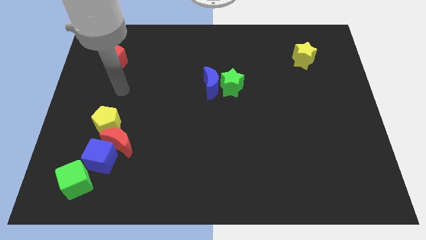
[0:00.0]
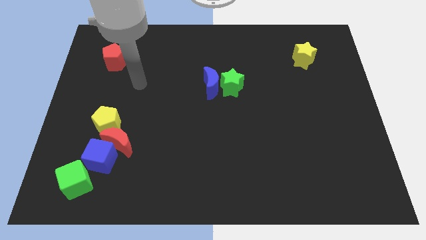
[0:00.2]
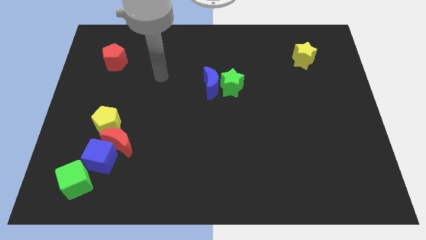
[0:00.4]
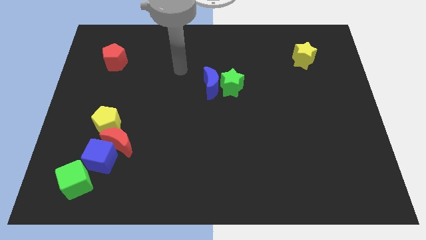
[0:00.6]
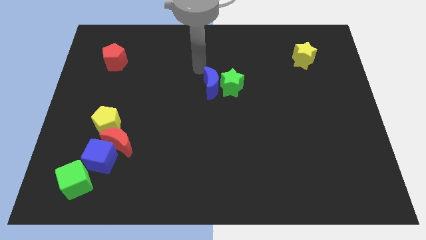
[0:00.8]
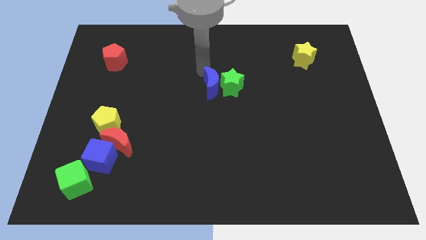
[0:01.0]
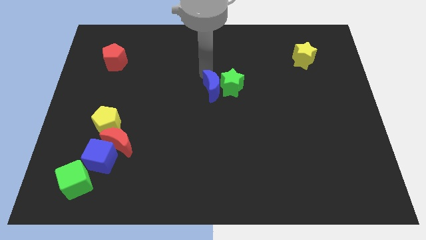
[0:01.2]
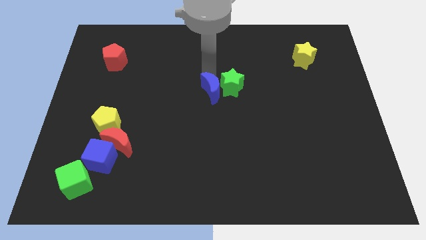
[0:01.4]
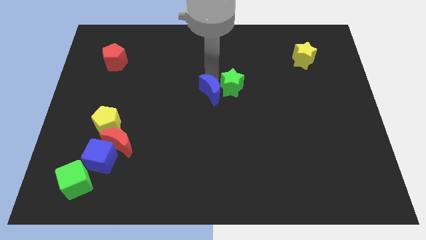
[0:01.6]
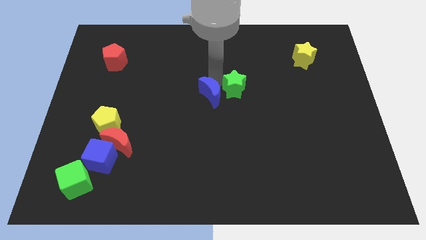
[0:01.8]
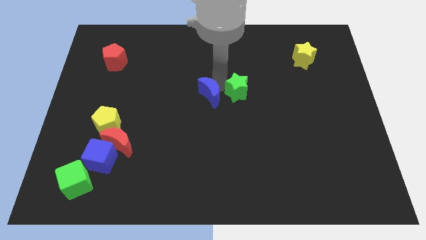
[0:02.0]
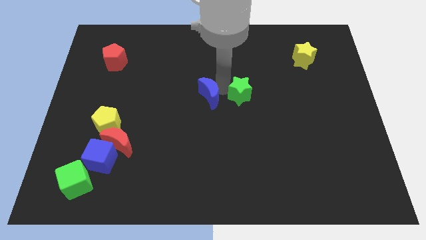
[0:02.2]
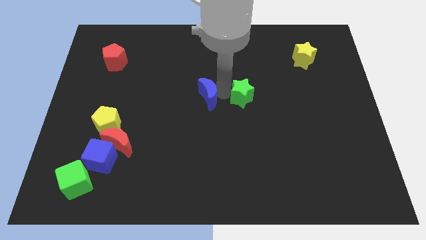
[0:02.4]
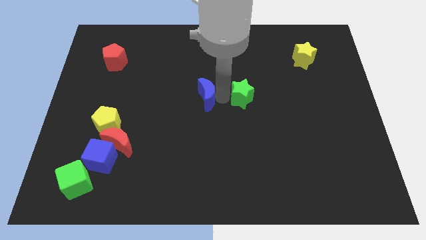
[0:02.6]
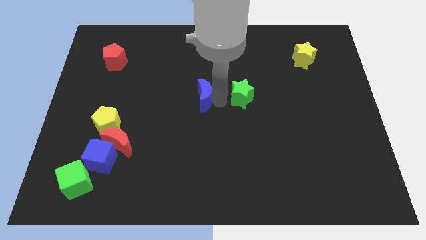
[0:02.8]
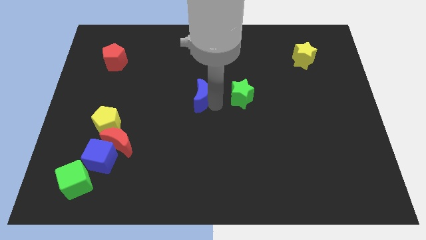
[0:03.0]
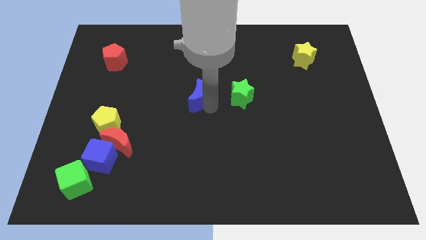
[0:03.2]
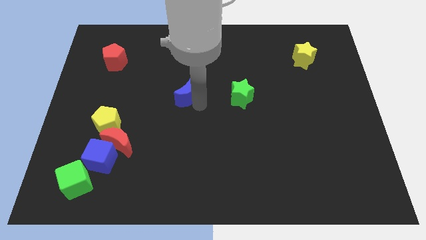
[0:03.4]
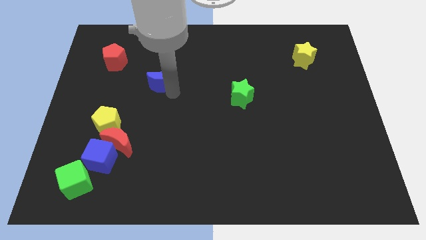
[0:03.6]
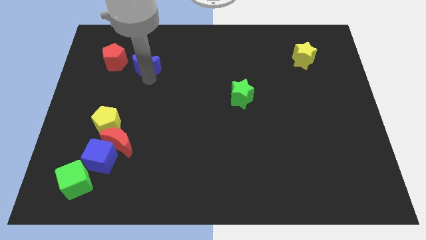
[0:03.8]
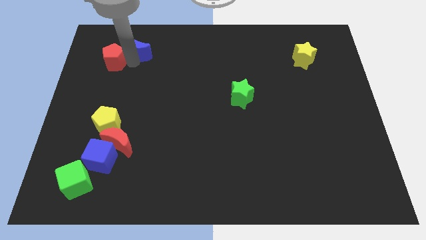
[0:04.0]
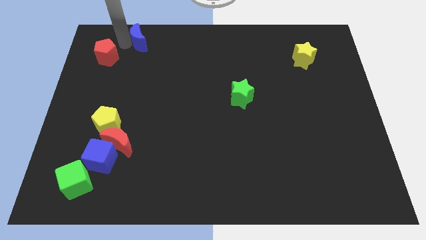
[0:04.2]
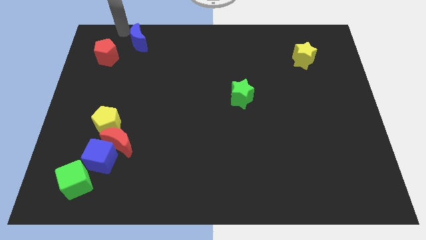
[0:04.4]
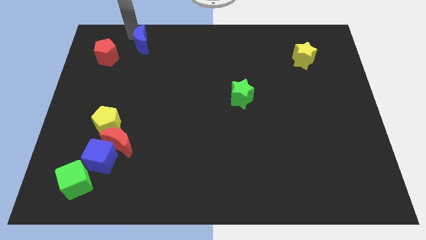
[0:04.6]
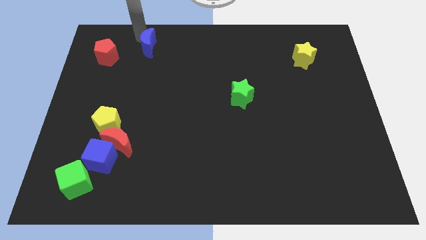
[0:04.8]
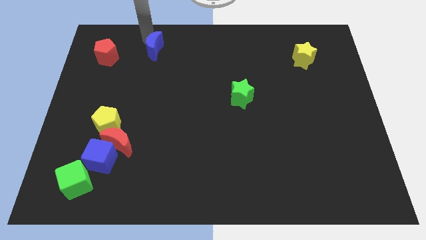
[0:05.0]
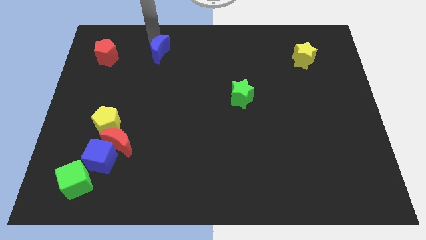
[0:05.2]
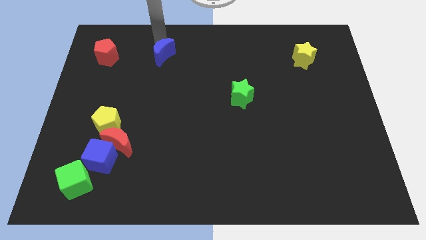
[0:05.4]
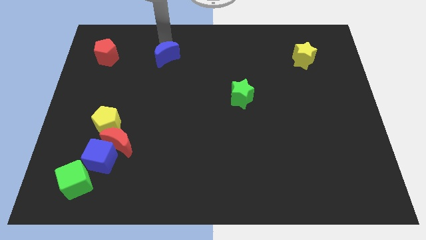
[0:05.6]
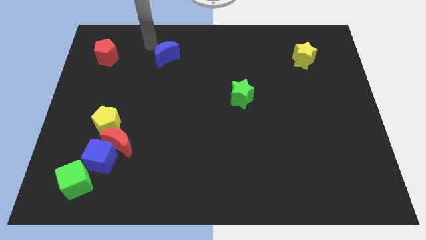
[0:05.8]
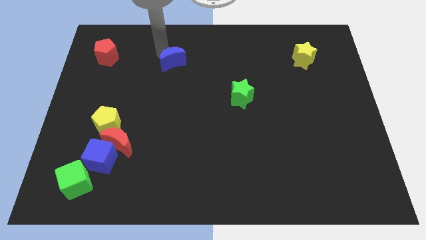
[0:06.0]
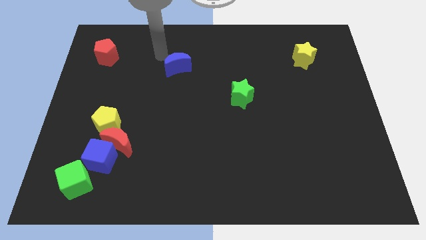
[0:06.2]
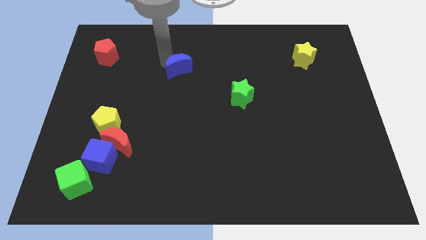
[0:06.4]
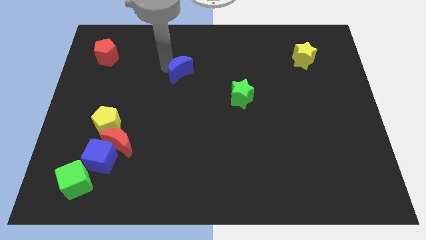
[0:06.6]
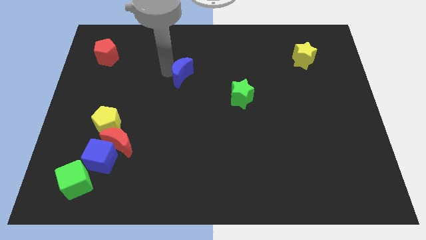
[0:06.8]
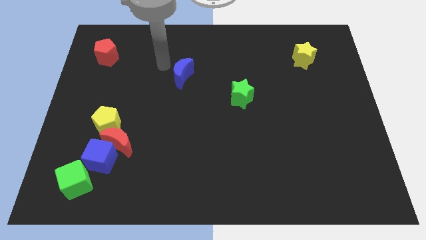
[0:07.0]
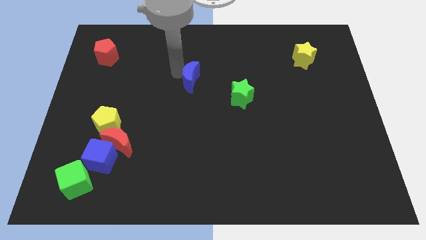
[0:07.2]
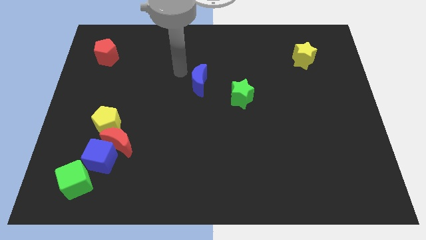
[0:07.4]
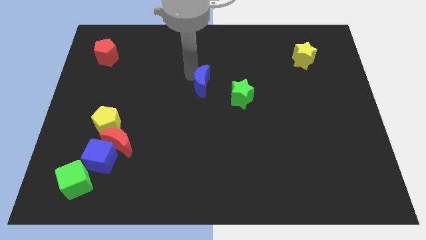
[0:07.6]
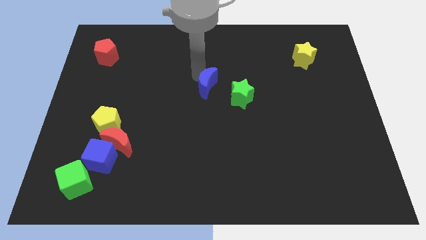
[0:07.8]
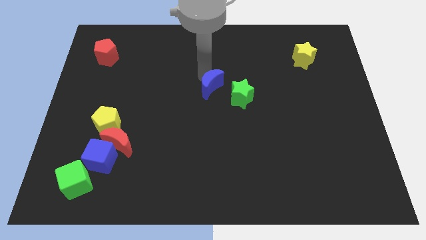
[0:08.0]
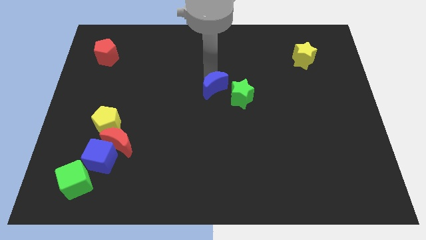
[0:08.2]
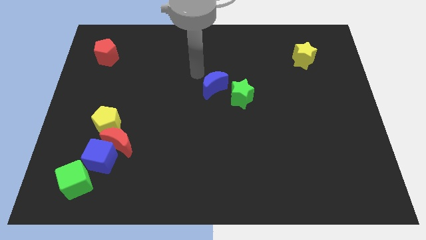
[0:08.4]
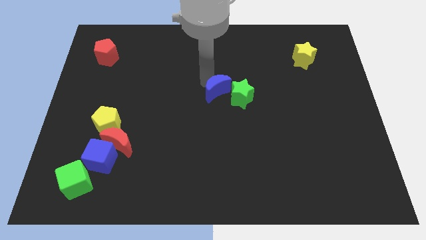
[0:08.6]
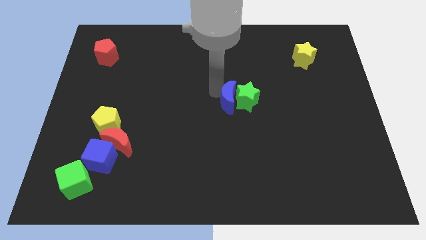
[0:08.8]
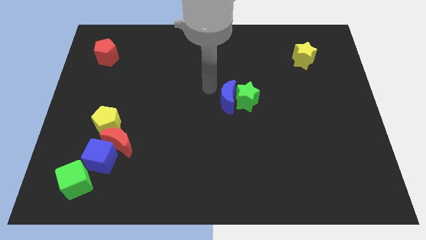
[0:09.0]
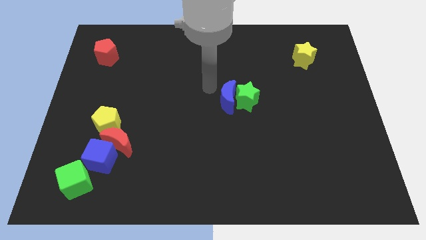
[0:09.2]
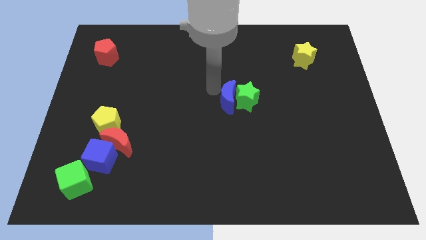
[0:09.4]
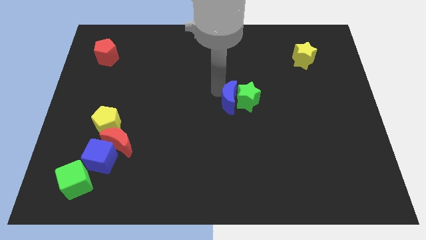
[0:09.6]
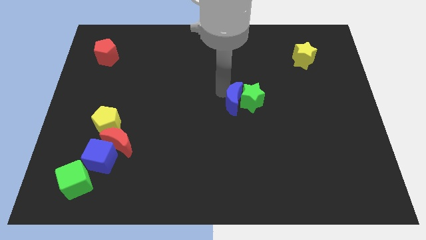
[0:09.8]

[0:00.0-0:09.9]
push the blue moon diagonally downwards and right a bit

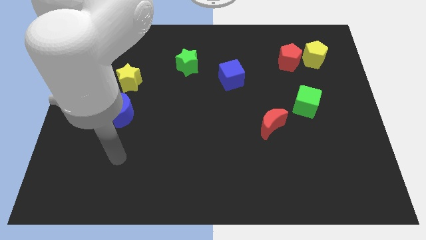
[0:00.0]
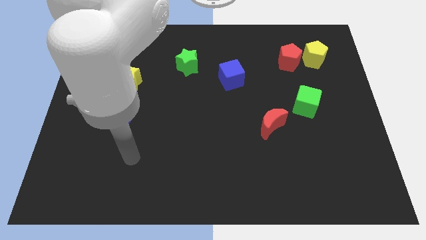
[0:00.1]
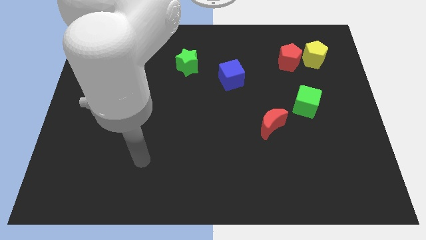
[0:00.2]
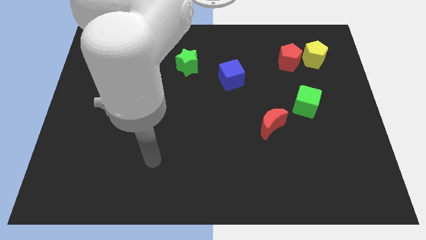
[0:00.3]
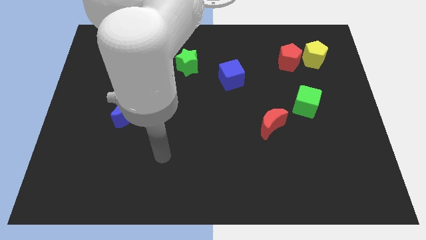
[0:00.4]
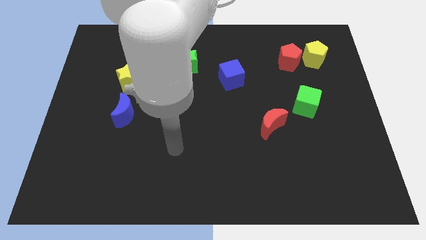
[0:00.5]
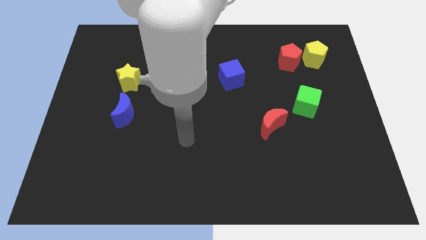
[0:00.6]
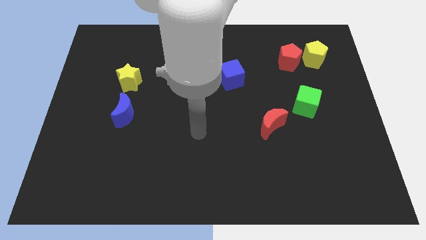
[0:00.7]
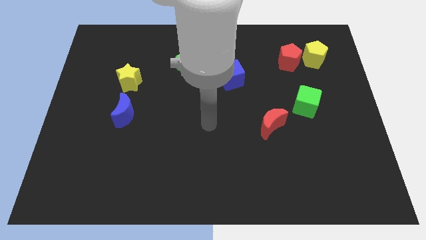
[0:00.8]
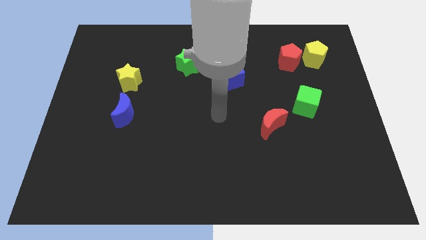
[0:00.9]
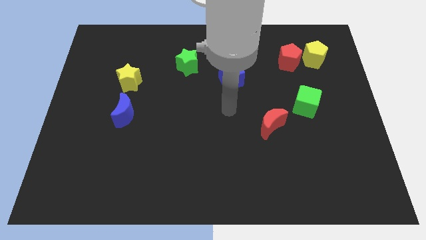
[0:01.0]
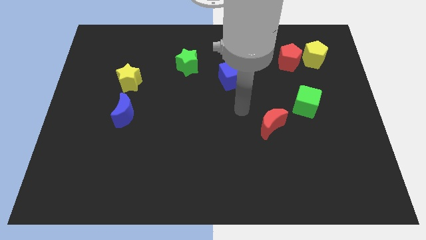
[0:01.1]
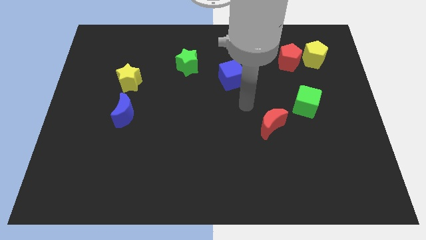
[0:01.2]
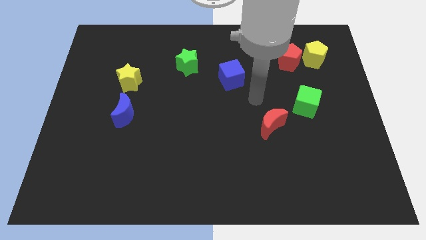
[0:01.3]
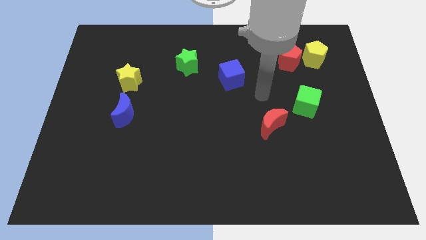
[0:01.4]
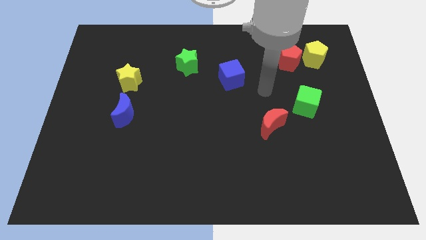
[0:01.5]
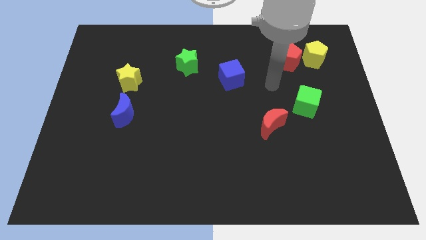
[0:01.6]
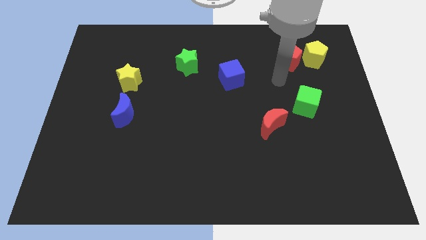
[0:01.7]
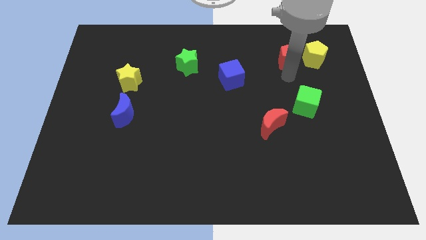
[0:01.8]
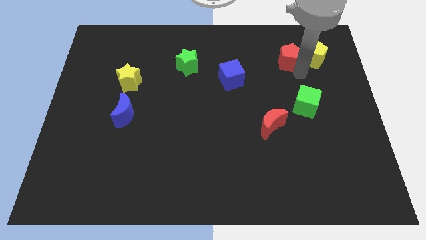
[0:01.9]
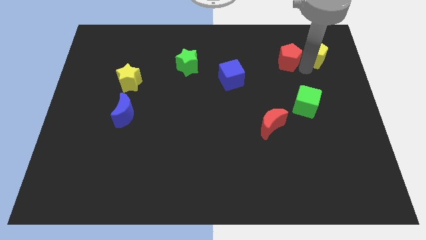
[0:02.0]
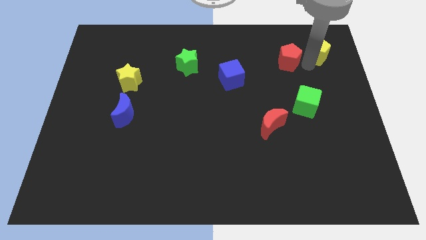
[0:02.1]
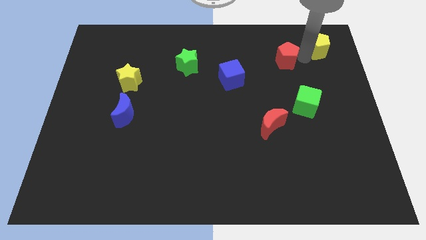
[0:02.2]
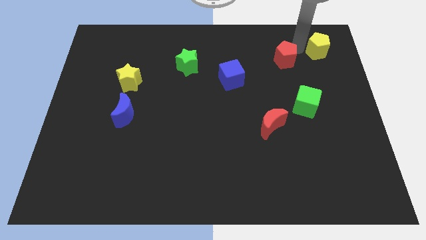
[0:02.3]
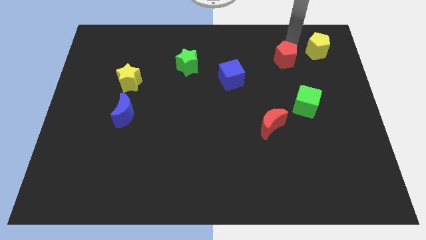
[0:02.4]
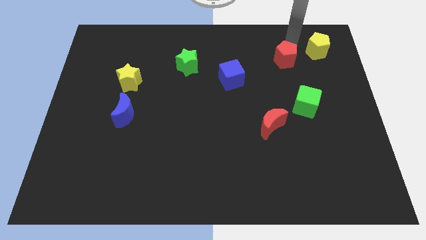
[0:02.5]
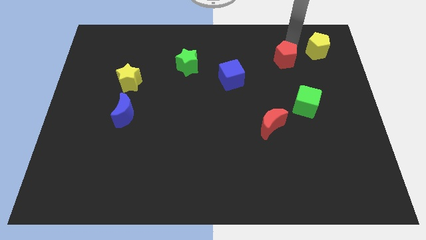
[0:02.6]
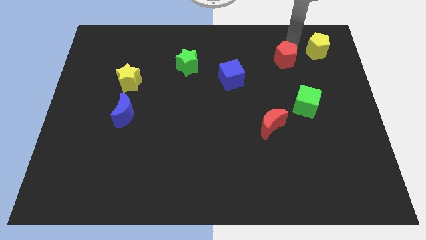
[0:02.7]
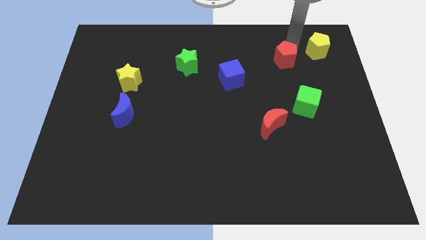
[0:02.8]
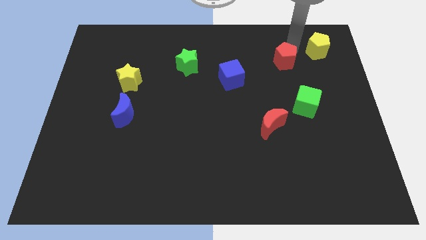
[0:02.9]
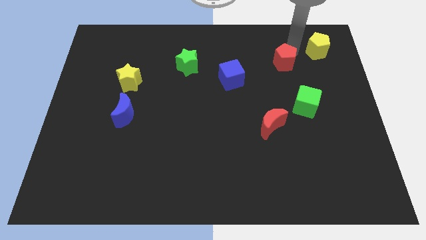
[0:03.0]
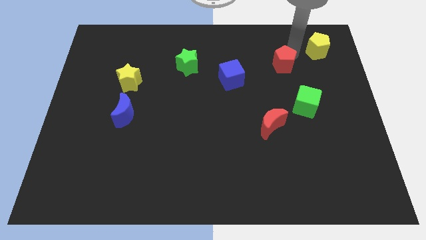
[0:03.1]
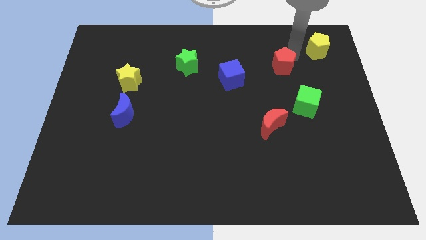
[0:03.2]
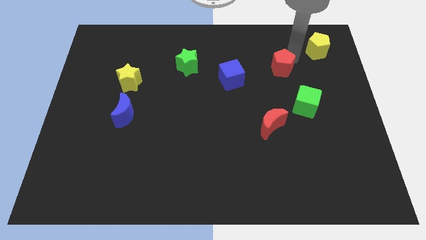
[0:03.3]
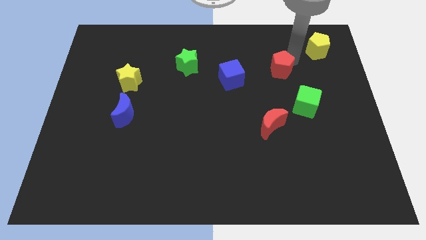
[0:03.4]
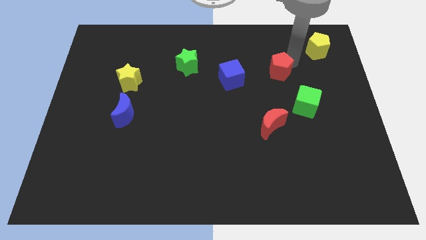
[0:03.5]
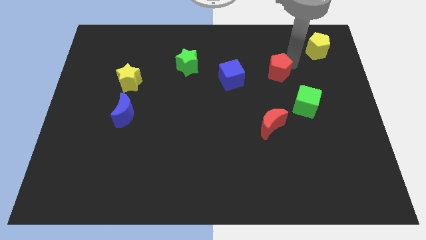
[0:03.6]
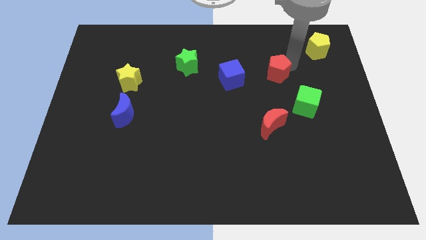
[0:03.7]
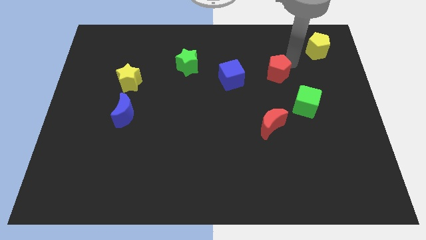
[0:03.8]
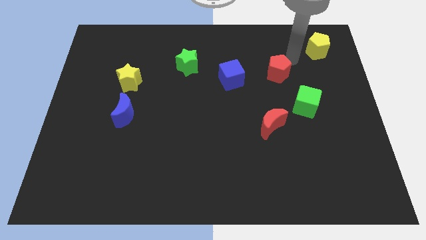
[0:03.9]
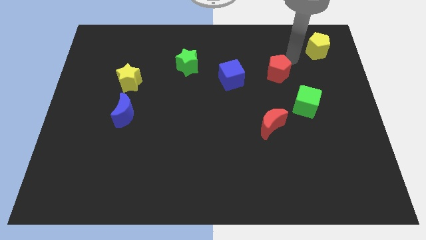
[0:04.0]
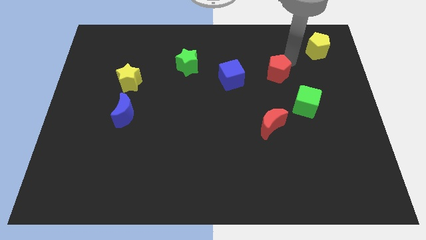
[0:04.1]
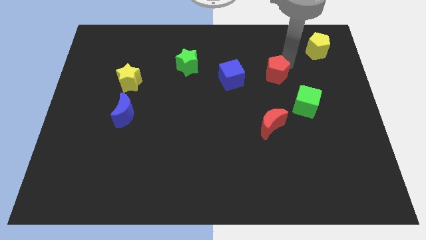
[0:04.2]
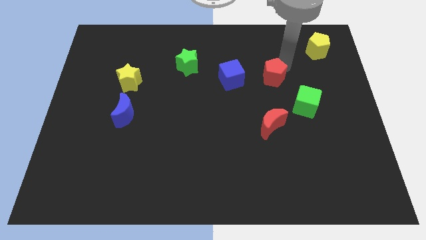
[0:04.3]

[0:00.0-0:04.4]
slide the red pentagon slightly down and left
